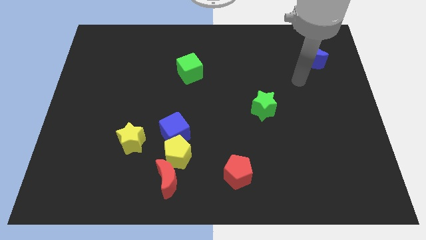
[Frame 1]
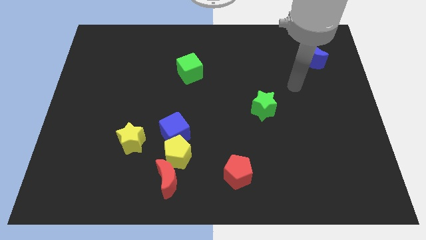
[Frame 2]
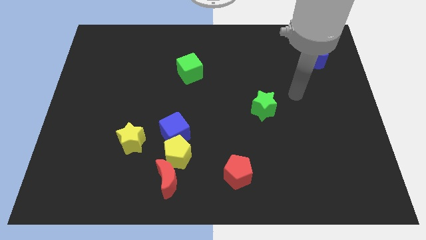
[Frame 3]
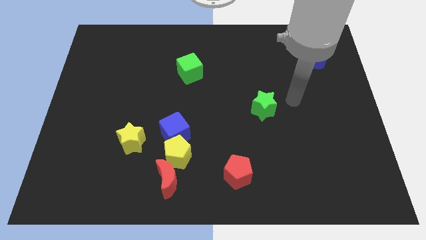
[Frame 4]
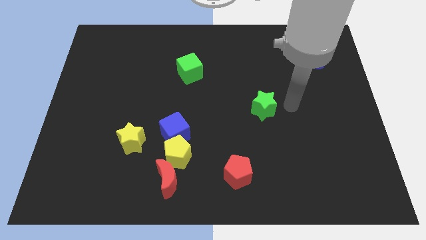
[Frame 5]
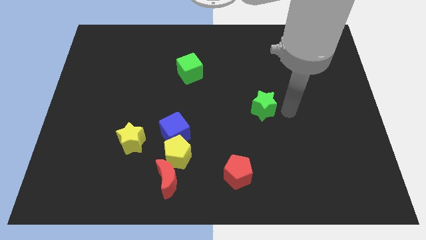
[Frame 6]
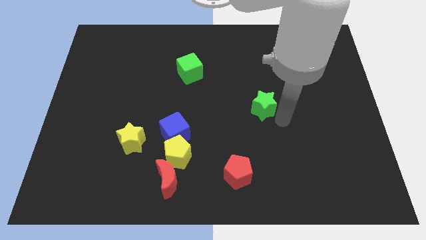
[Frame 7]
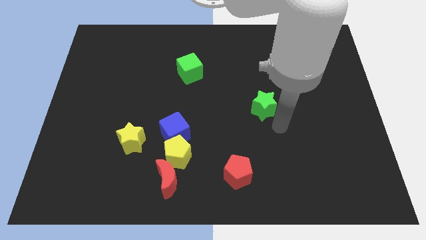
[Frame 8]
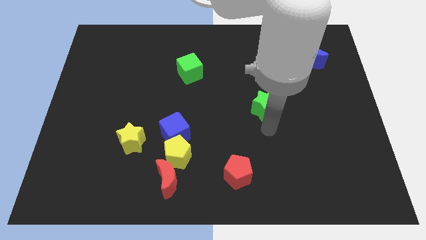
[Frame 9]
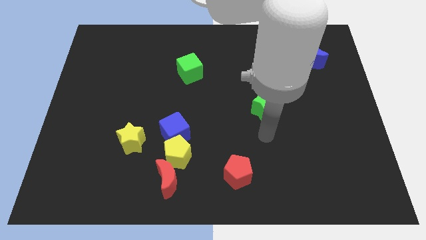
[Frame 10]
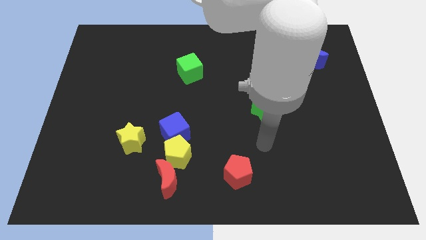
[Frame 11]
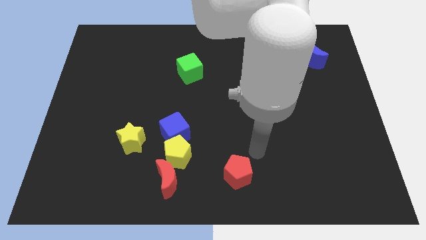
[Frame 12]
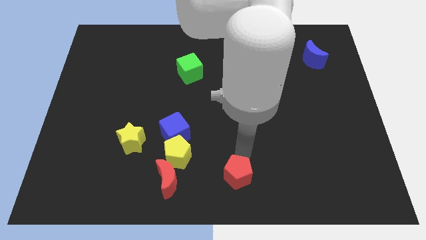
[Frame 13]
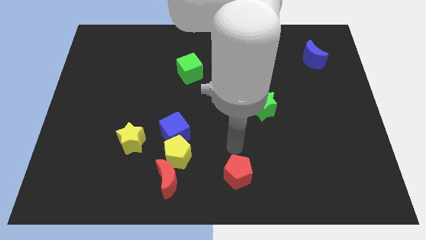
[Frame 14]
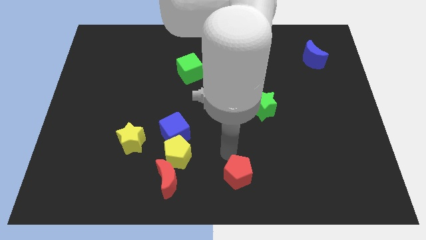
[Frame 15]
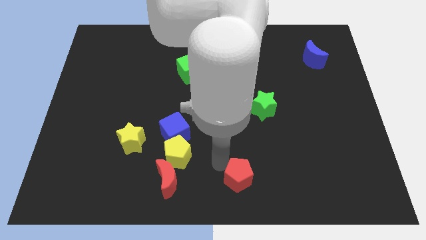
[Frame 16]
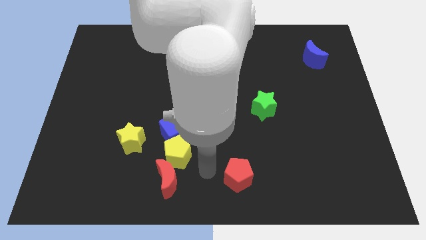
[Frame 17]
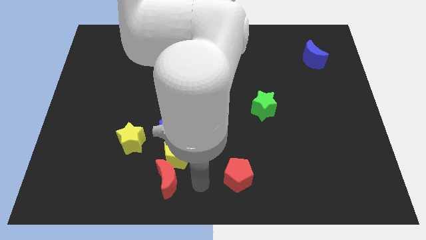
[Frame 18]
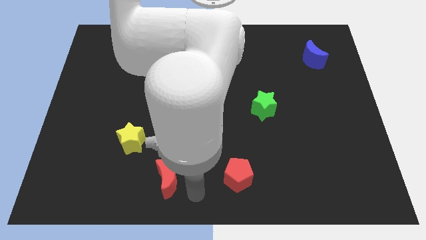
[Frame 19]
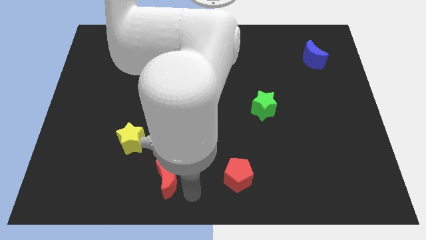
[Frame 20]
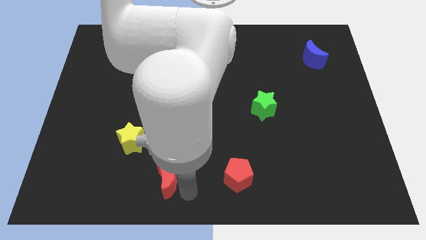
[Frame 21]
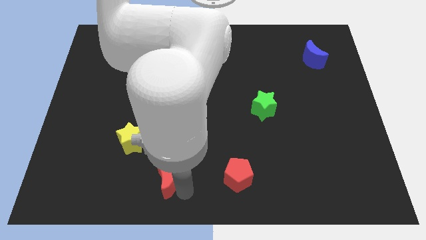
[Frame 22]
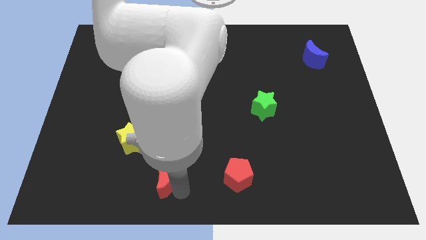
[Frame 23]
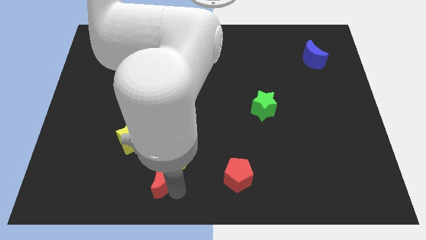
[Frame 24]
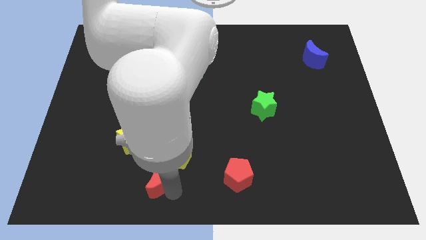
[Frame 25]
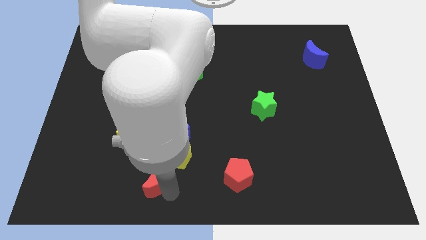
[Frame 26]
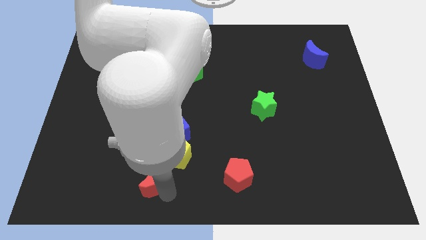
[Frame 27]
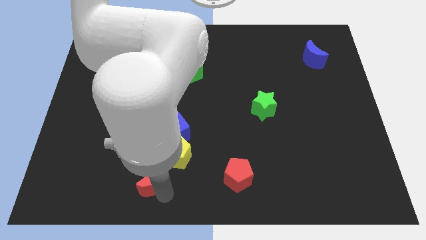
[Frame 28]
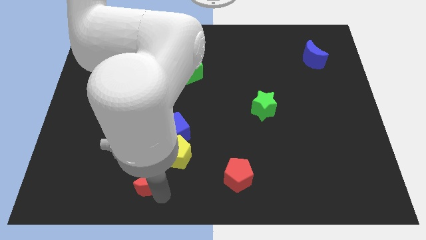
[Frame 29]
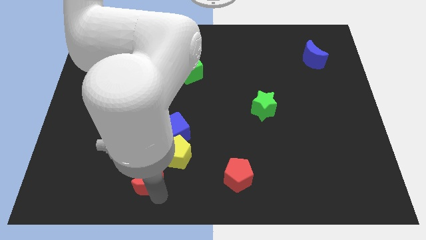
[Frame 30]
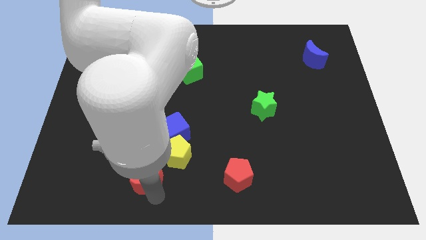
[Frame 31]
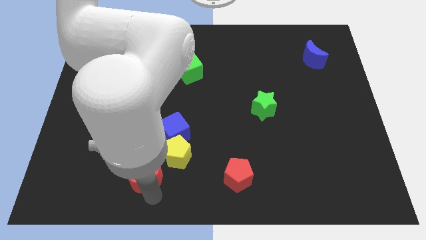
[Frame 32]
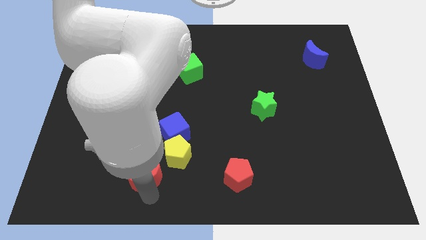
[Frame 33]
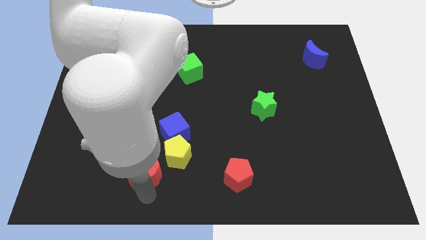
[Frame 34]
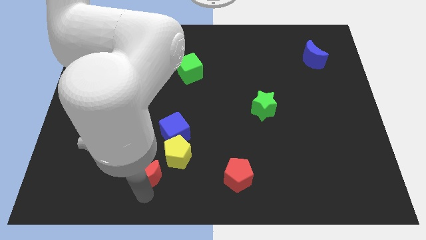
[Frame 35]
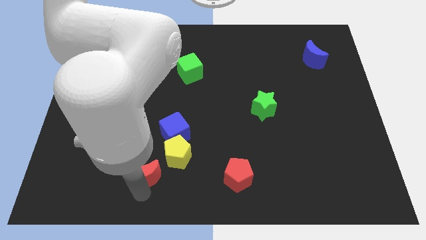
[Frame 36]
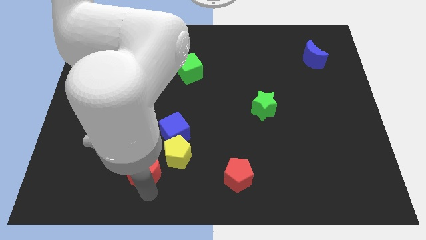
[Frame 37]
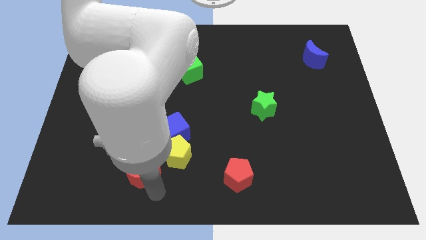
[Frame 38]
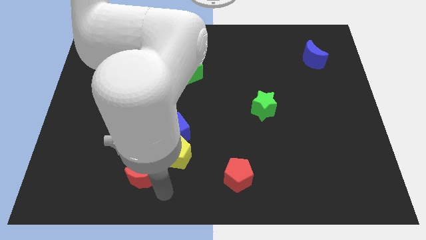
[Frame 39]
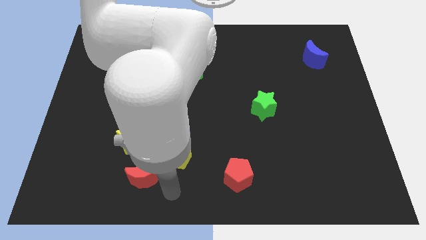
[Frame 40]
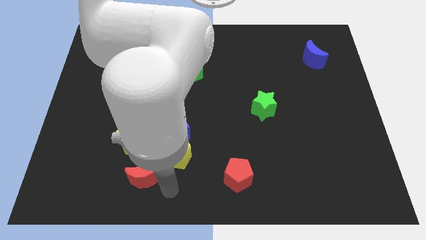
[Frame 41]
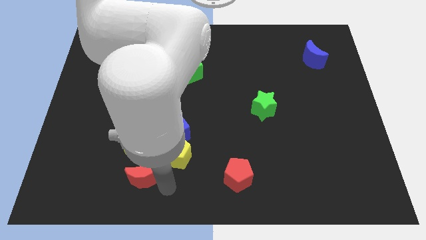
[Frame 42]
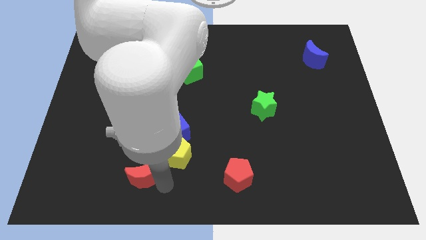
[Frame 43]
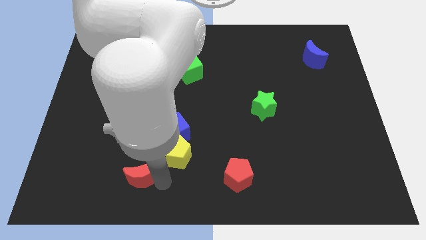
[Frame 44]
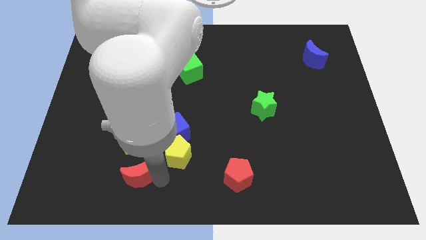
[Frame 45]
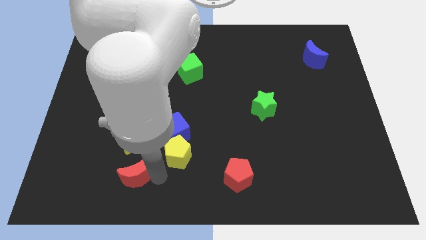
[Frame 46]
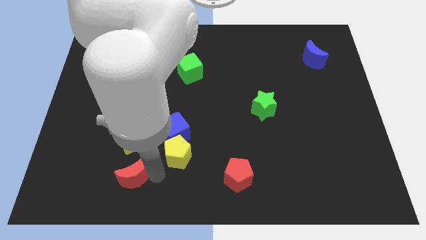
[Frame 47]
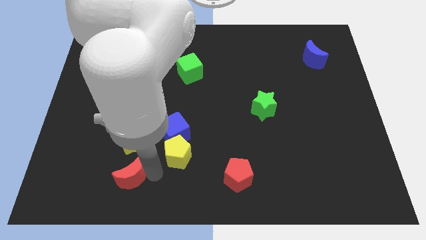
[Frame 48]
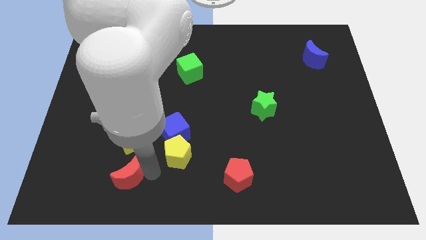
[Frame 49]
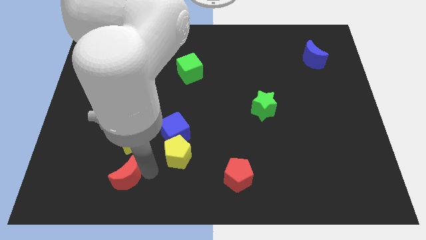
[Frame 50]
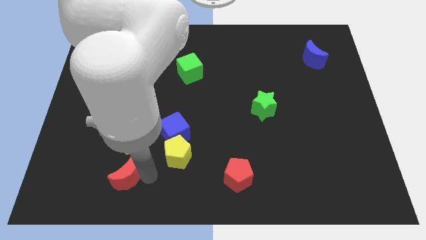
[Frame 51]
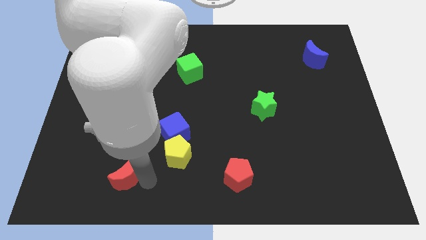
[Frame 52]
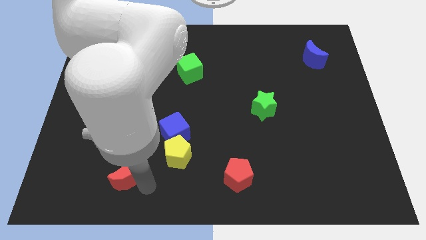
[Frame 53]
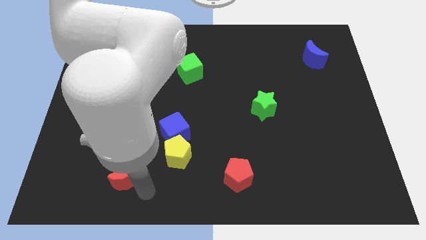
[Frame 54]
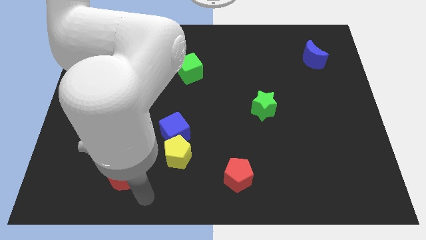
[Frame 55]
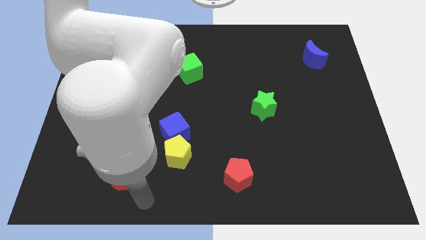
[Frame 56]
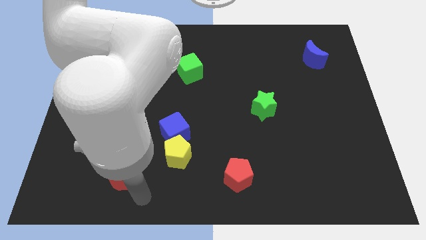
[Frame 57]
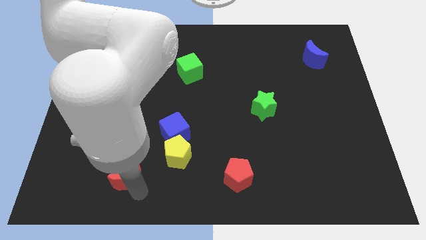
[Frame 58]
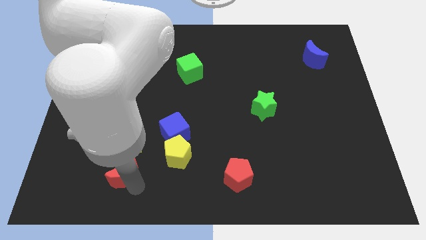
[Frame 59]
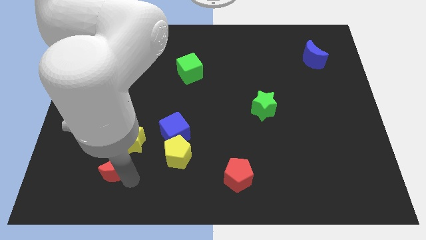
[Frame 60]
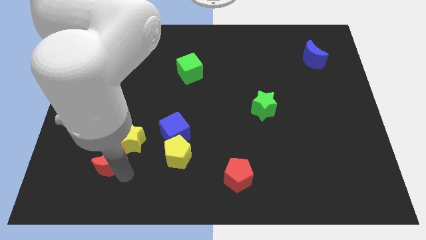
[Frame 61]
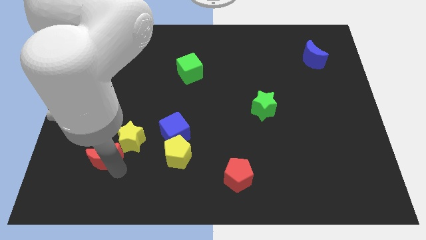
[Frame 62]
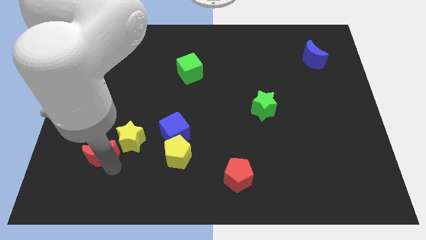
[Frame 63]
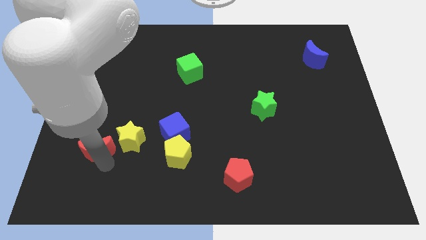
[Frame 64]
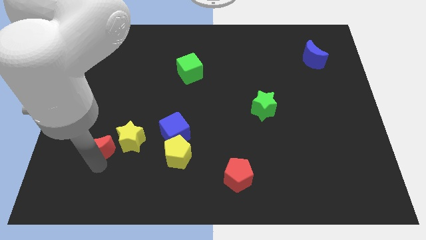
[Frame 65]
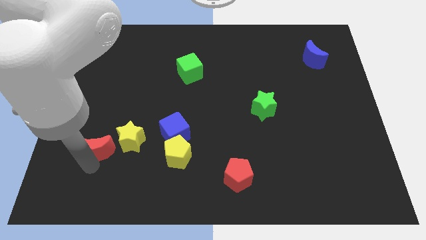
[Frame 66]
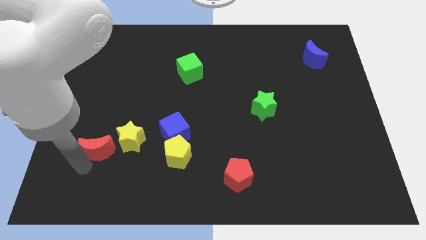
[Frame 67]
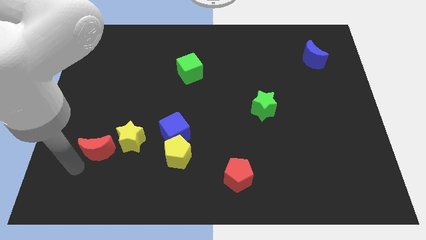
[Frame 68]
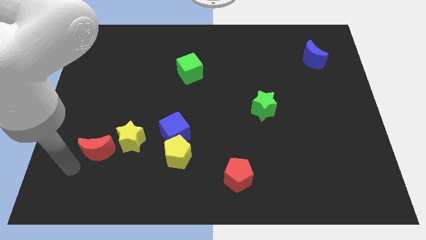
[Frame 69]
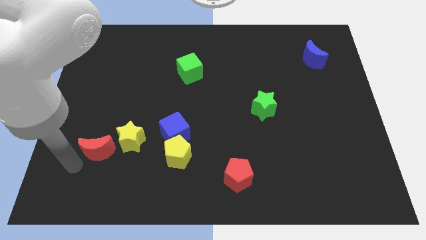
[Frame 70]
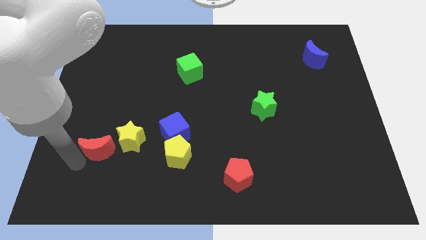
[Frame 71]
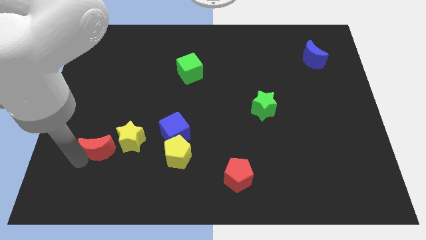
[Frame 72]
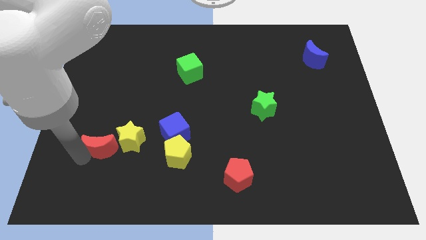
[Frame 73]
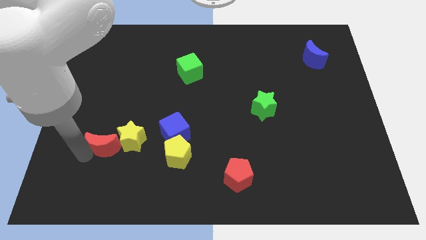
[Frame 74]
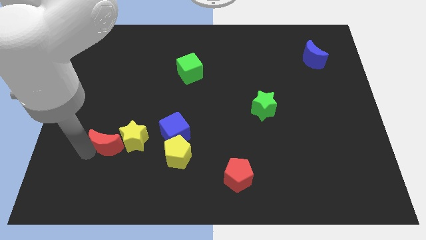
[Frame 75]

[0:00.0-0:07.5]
push the red moon left of the blue cube

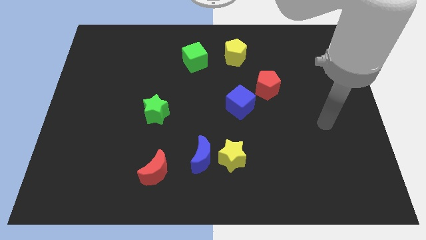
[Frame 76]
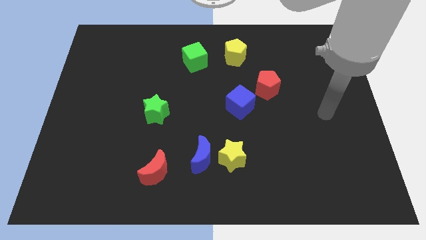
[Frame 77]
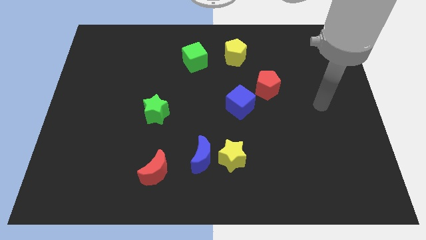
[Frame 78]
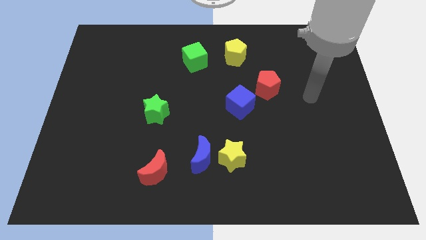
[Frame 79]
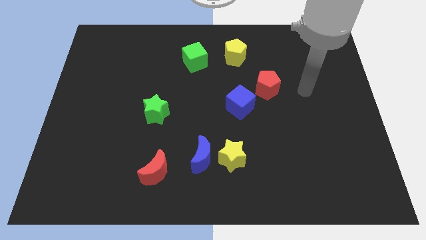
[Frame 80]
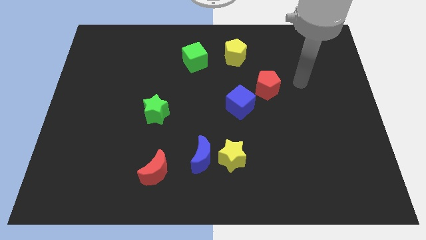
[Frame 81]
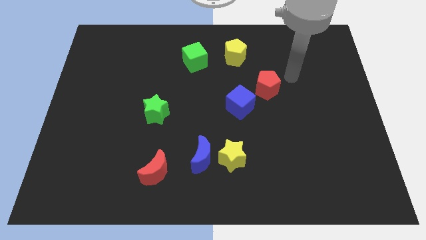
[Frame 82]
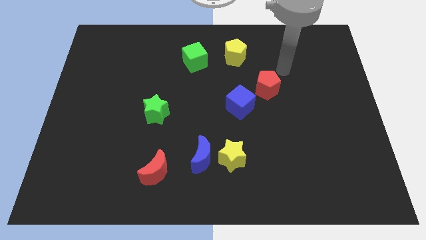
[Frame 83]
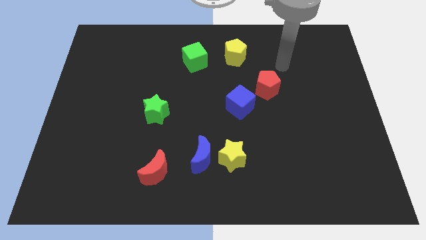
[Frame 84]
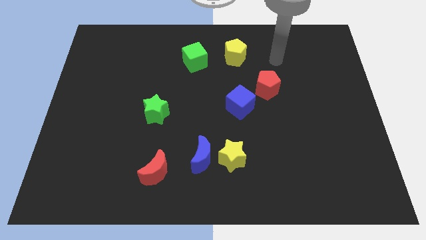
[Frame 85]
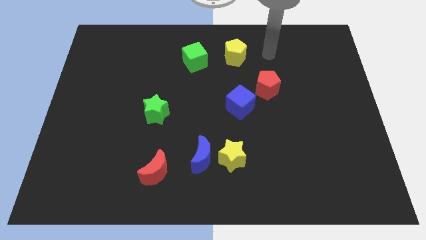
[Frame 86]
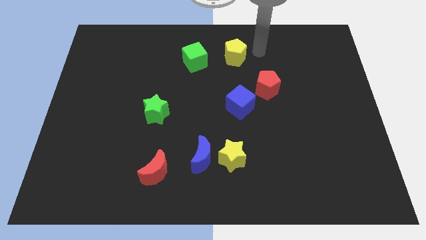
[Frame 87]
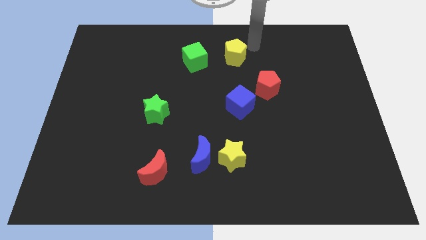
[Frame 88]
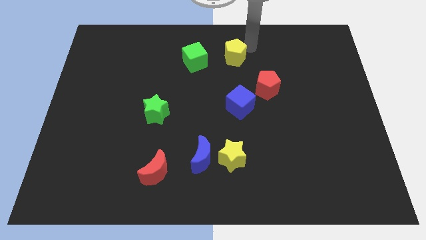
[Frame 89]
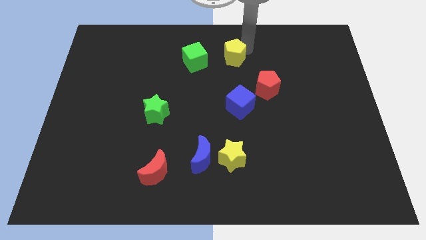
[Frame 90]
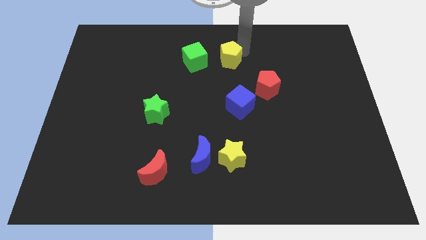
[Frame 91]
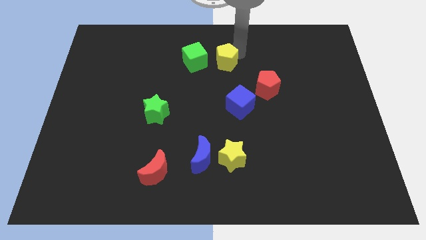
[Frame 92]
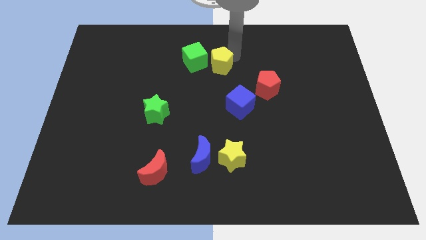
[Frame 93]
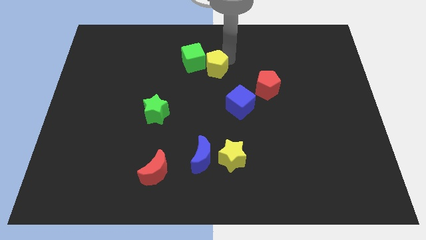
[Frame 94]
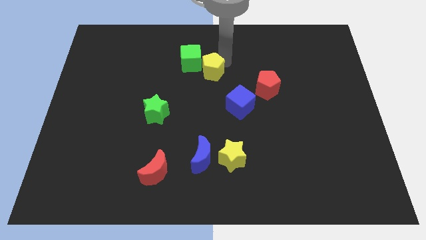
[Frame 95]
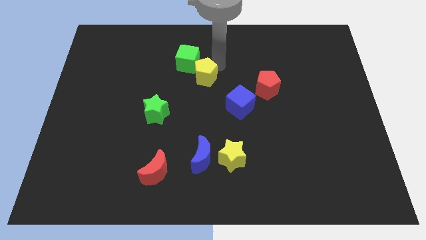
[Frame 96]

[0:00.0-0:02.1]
put the yellow pentagon to the bottom of the green cube
